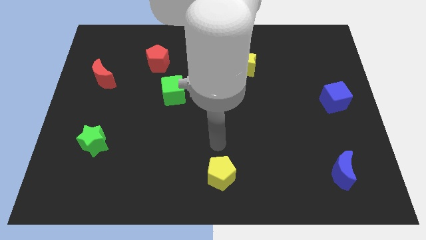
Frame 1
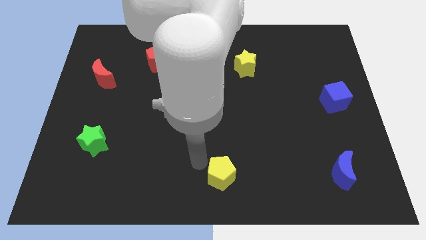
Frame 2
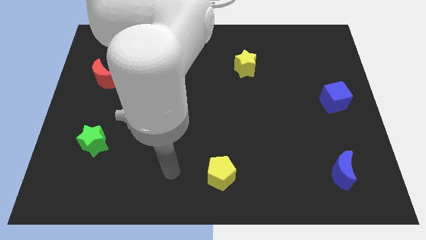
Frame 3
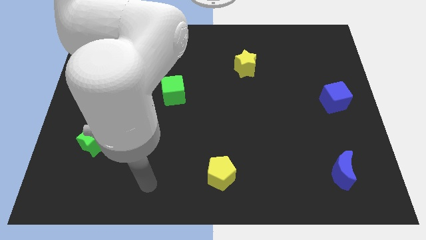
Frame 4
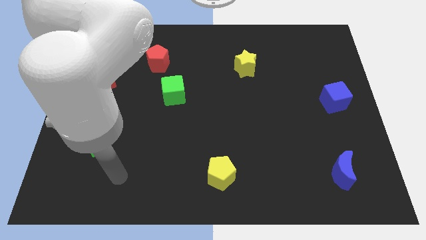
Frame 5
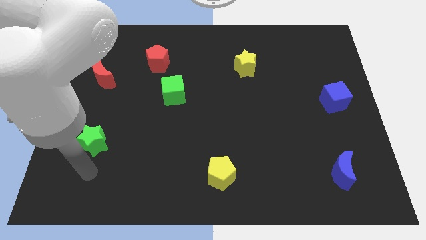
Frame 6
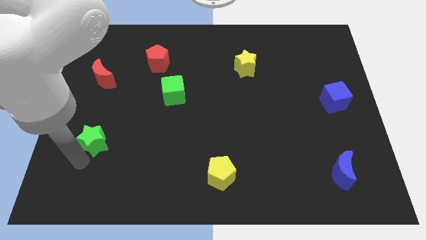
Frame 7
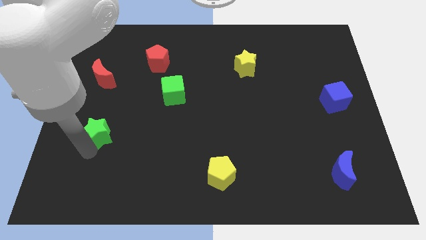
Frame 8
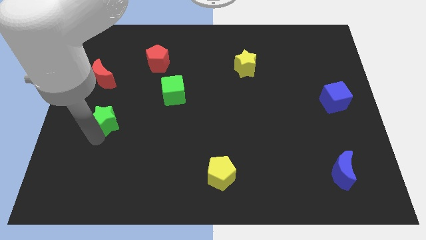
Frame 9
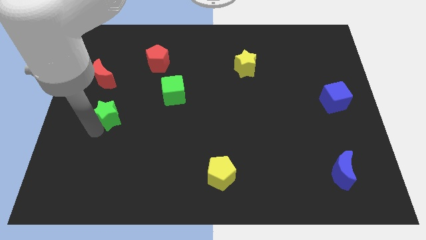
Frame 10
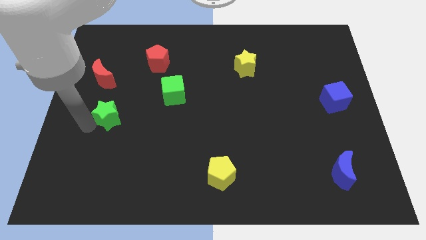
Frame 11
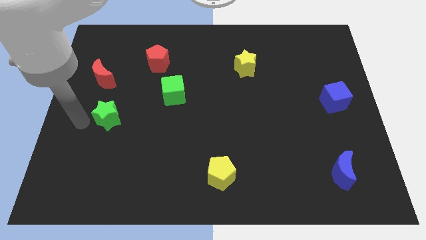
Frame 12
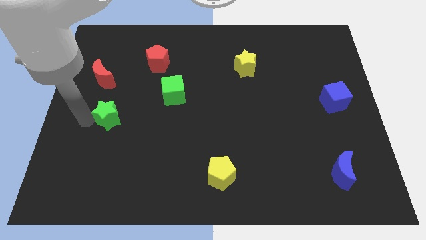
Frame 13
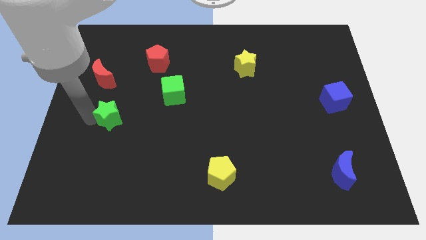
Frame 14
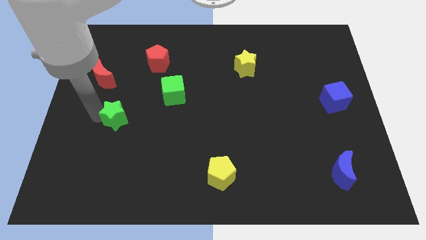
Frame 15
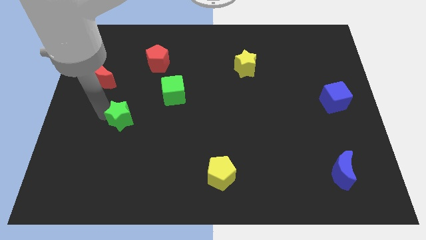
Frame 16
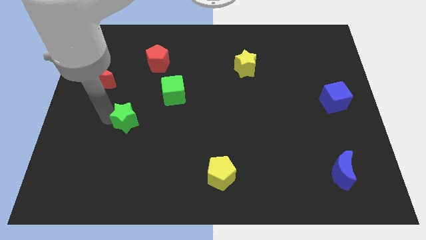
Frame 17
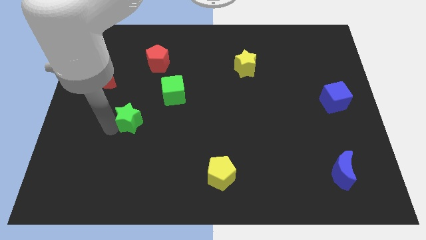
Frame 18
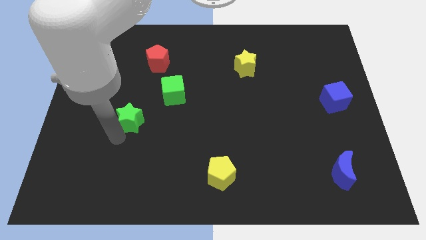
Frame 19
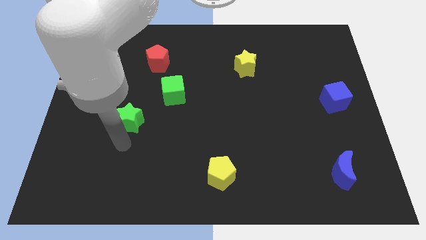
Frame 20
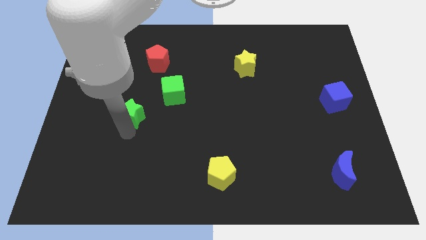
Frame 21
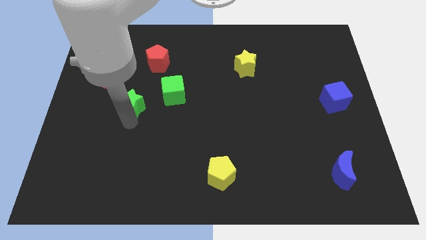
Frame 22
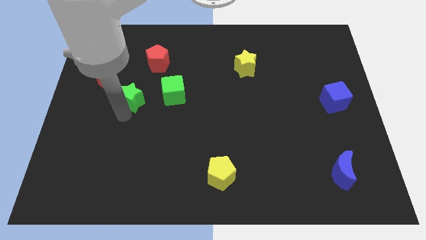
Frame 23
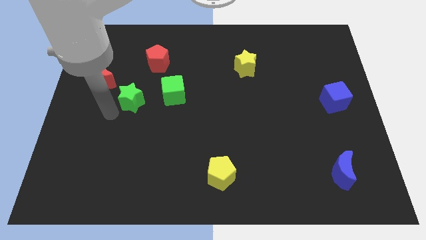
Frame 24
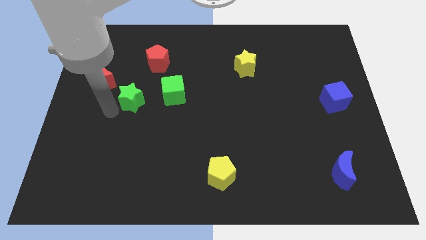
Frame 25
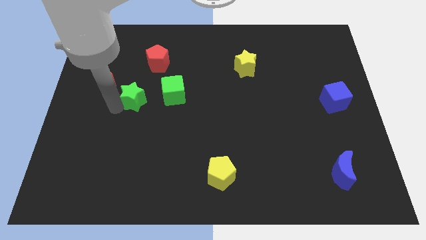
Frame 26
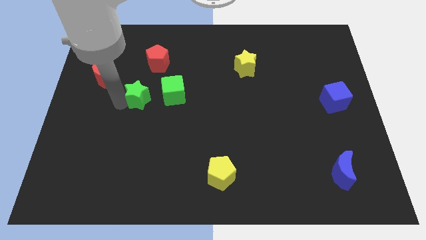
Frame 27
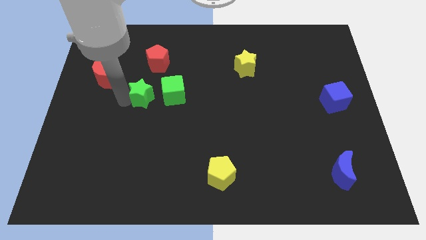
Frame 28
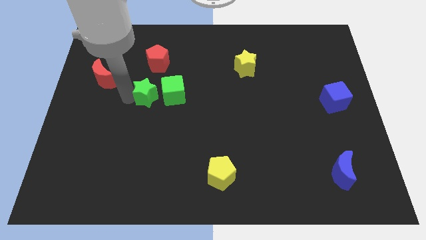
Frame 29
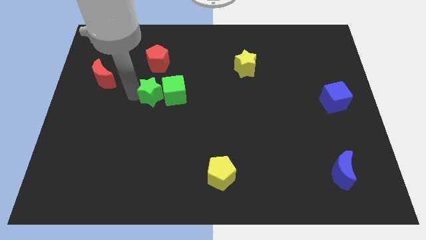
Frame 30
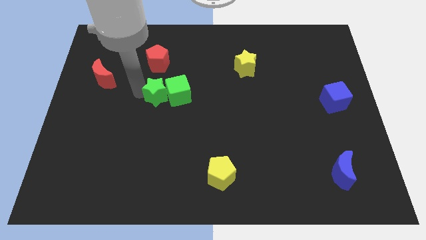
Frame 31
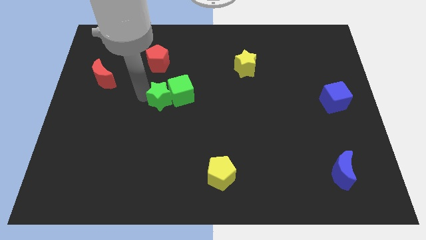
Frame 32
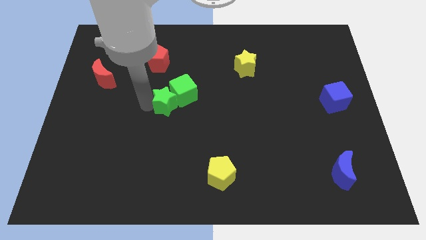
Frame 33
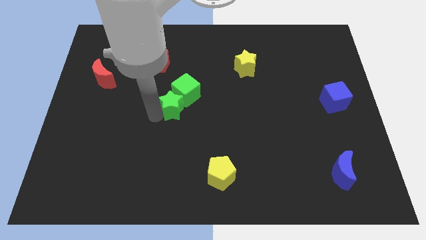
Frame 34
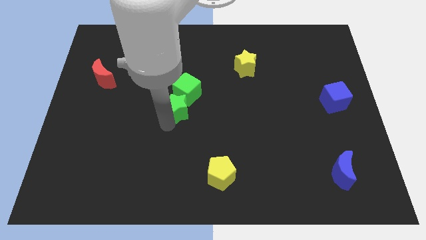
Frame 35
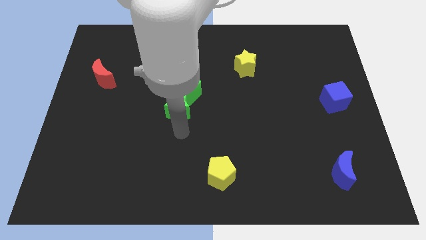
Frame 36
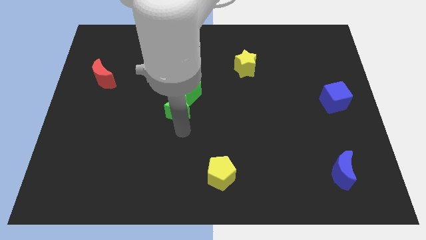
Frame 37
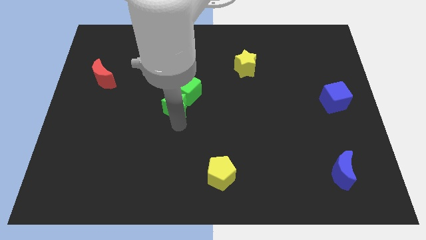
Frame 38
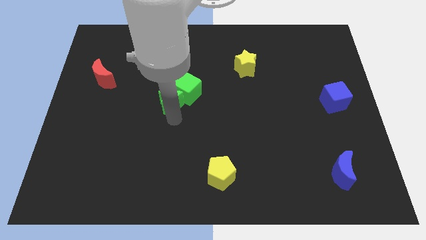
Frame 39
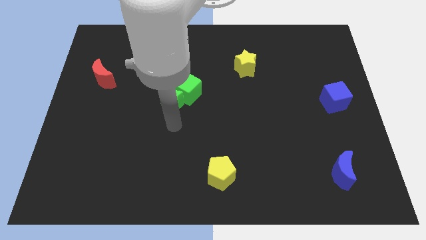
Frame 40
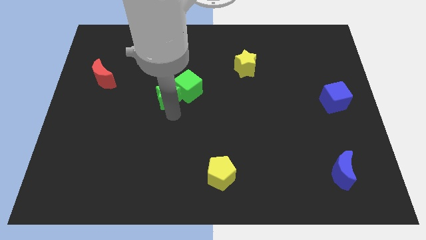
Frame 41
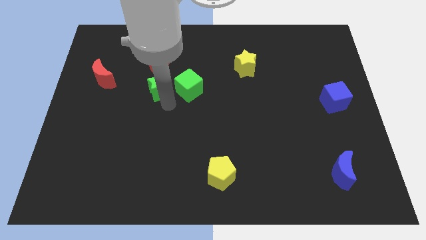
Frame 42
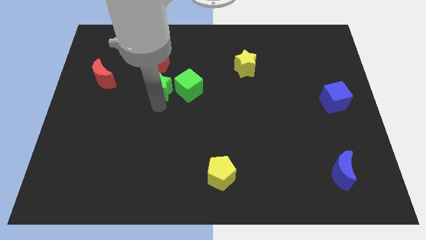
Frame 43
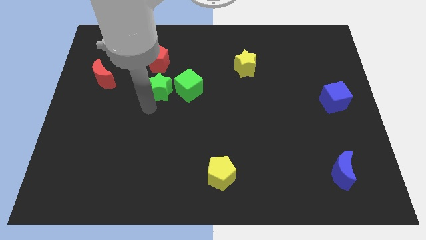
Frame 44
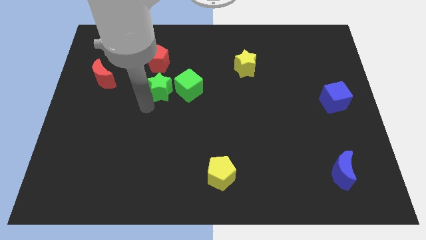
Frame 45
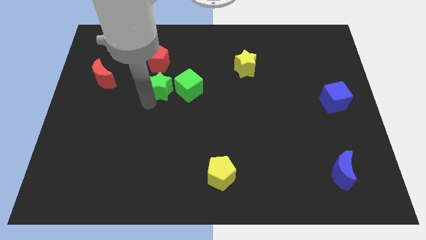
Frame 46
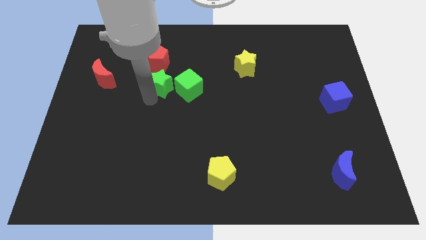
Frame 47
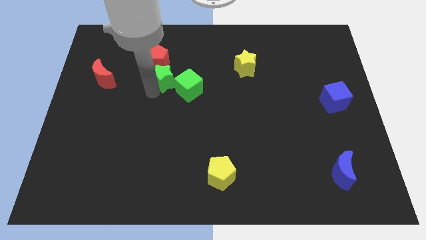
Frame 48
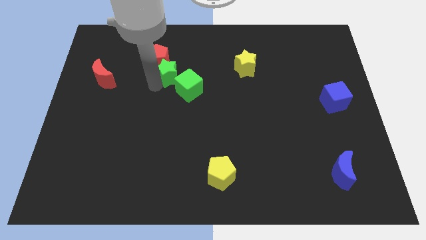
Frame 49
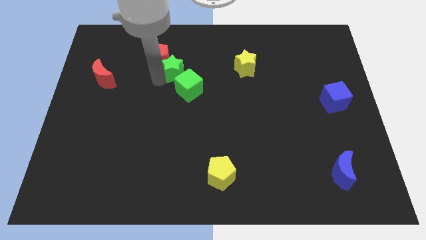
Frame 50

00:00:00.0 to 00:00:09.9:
push the green star right of the red pentagon

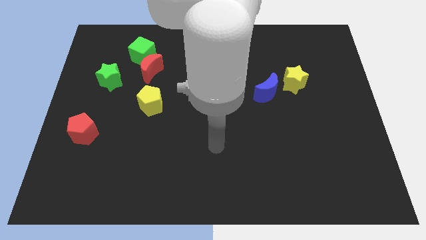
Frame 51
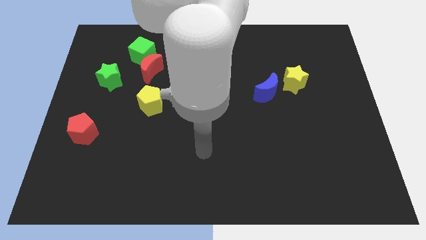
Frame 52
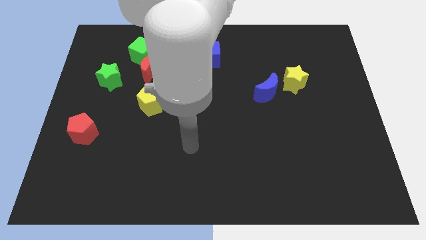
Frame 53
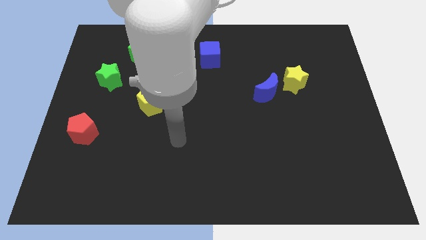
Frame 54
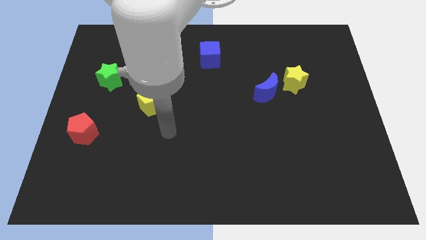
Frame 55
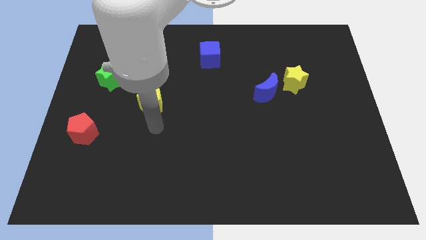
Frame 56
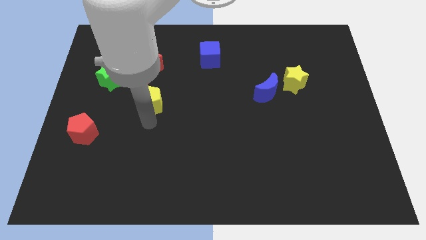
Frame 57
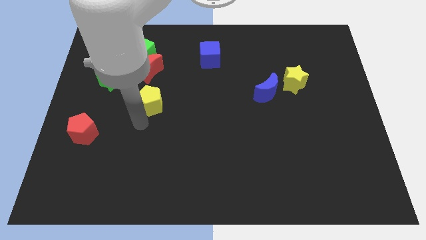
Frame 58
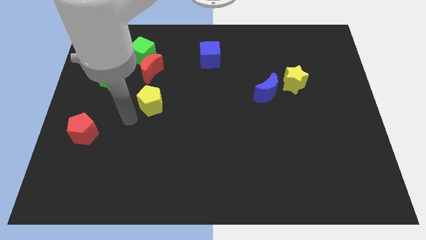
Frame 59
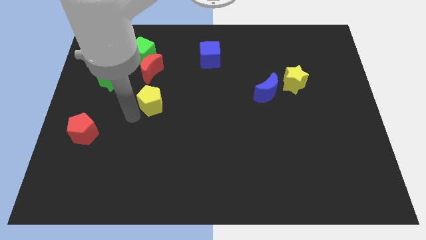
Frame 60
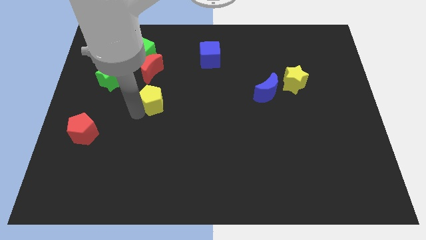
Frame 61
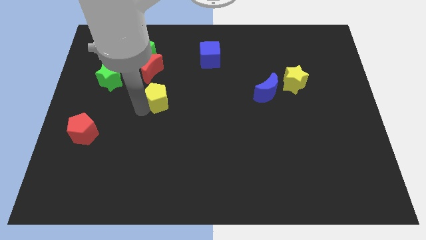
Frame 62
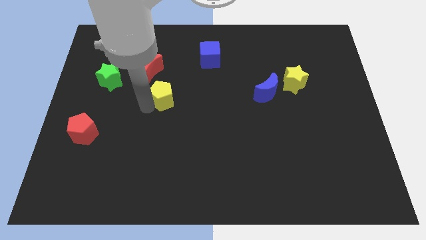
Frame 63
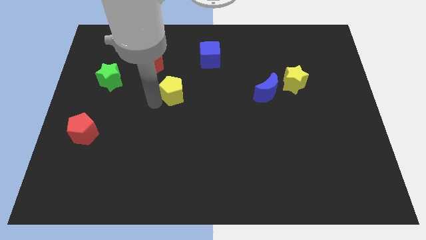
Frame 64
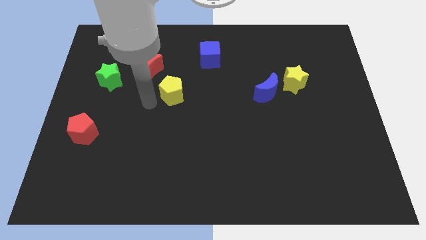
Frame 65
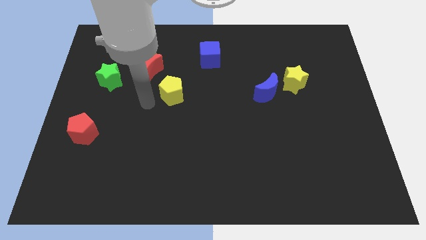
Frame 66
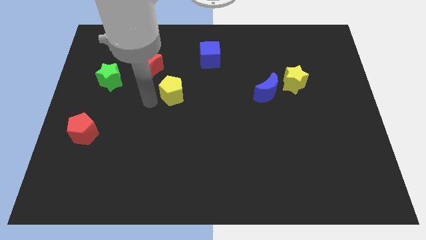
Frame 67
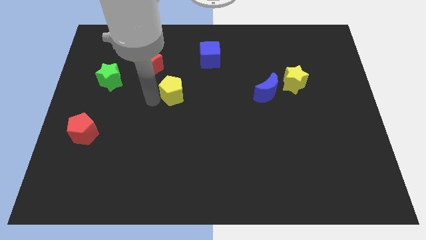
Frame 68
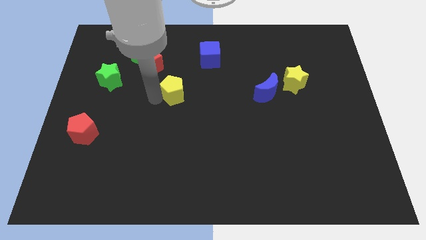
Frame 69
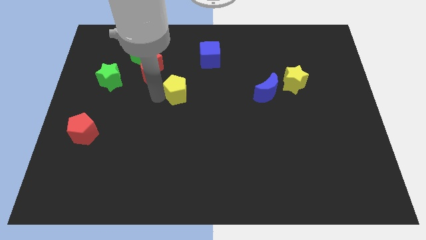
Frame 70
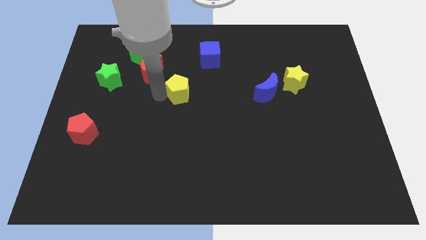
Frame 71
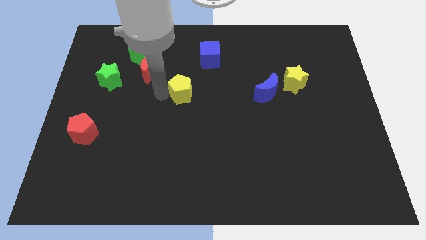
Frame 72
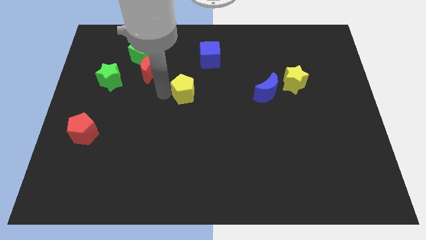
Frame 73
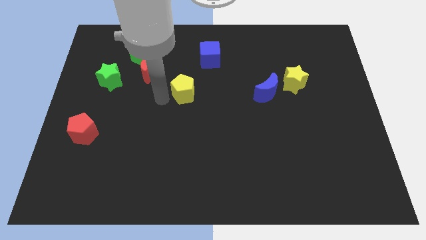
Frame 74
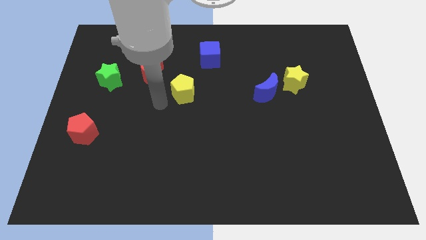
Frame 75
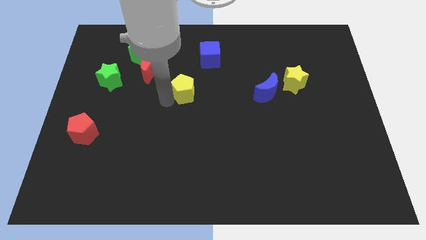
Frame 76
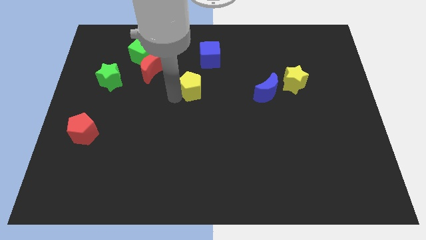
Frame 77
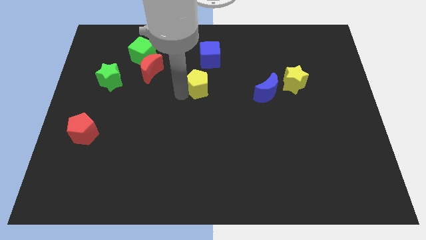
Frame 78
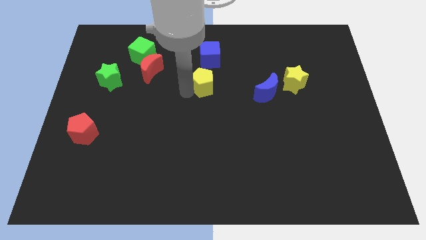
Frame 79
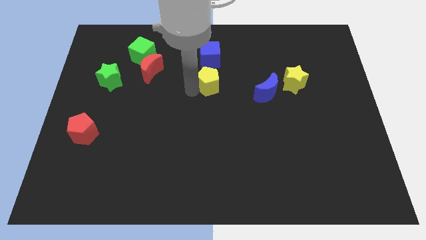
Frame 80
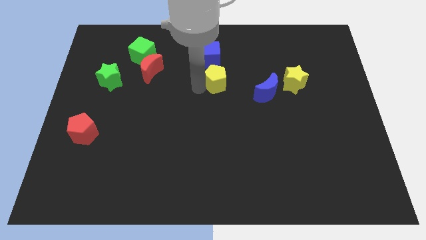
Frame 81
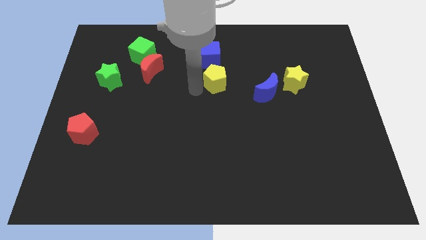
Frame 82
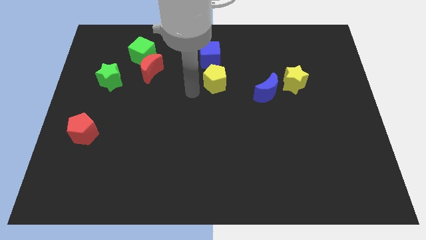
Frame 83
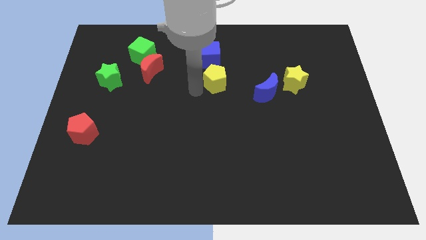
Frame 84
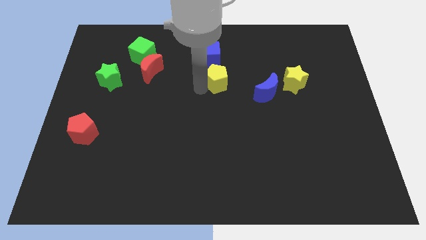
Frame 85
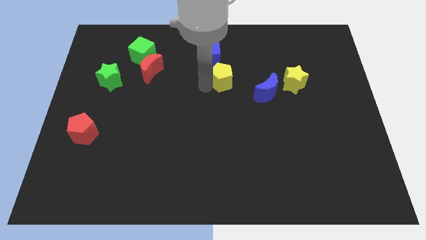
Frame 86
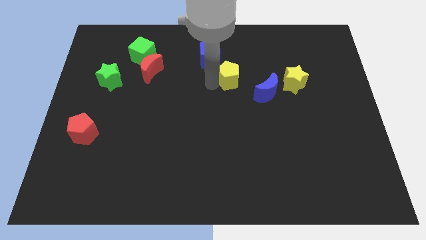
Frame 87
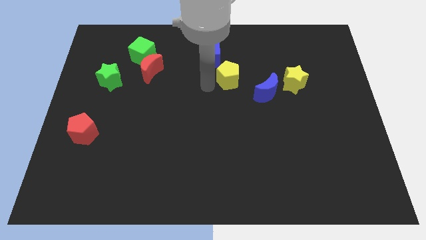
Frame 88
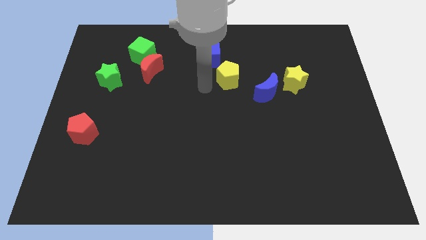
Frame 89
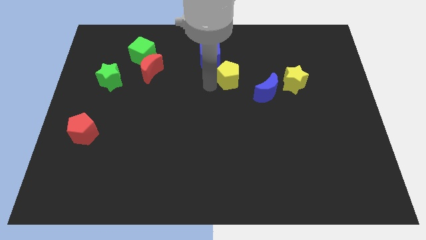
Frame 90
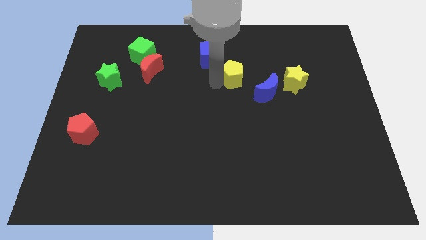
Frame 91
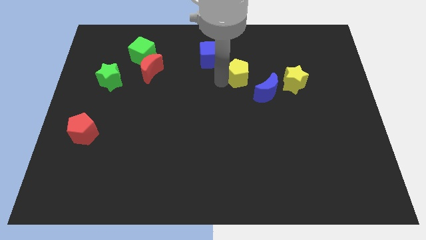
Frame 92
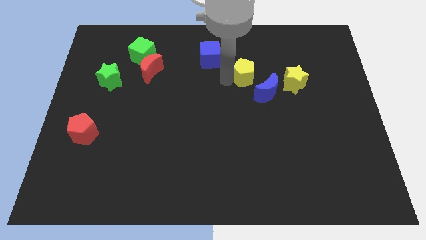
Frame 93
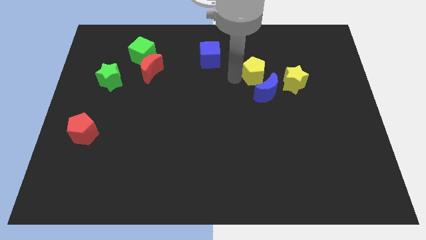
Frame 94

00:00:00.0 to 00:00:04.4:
slide the yellow pentagon to the top left of the yellow star
